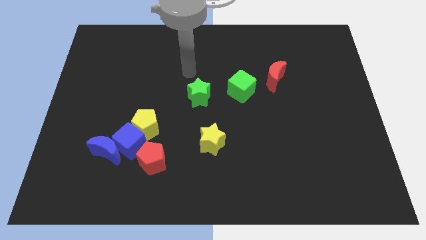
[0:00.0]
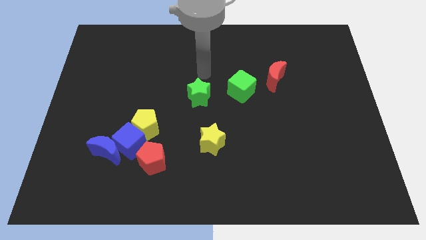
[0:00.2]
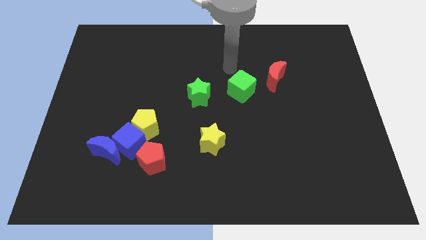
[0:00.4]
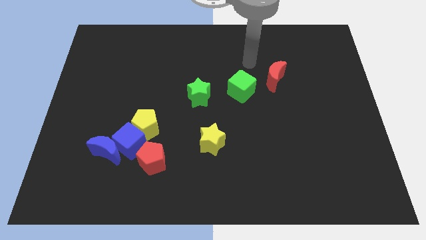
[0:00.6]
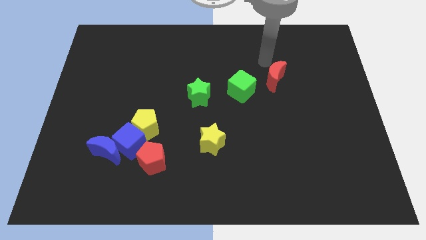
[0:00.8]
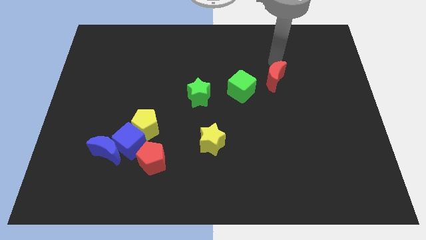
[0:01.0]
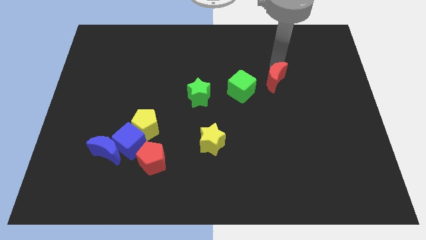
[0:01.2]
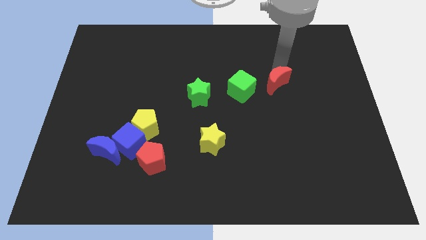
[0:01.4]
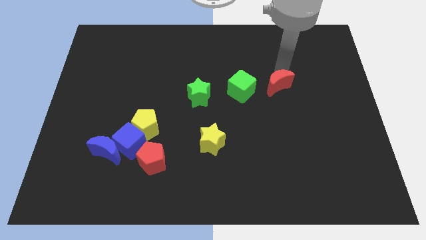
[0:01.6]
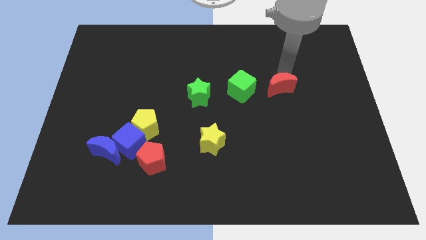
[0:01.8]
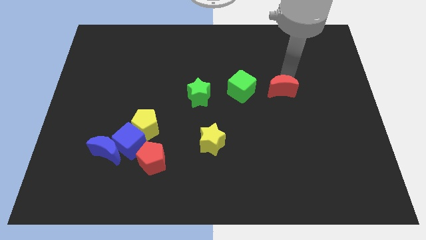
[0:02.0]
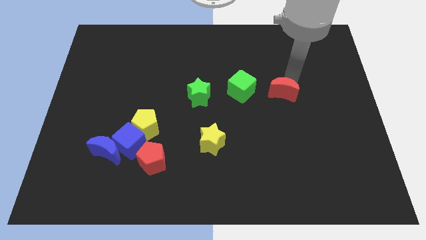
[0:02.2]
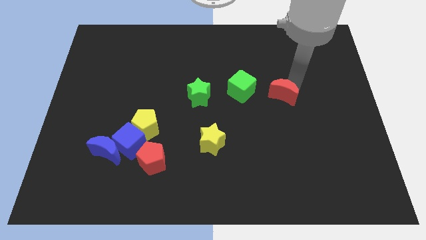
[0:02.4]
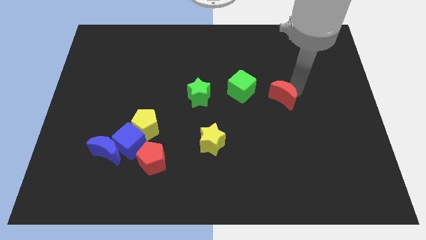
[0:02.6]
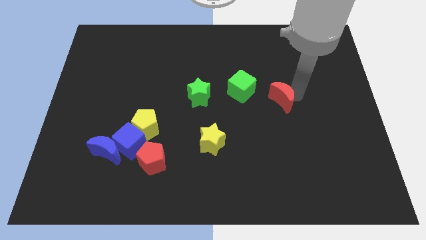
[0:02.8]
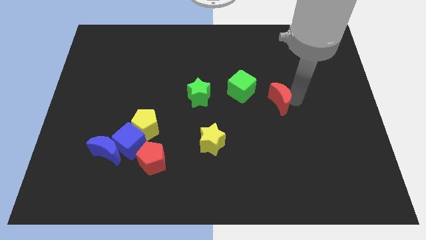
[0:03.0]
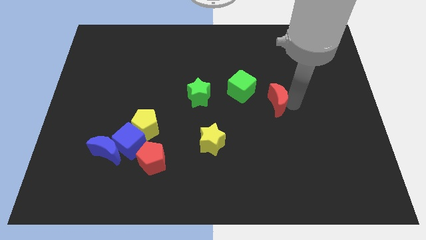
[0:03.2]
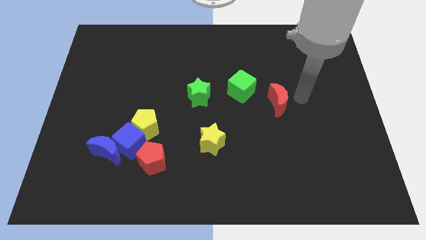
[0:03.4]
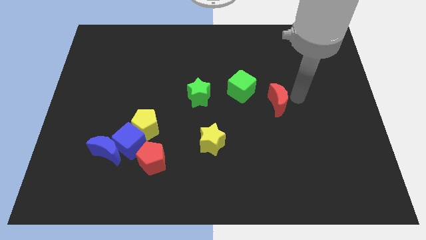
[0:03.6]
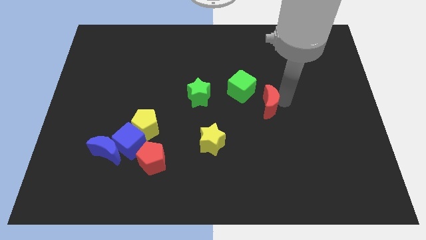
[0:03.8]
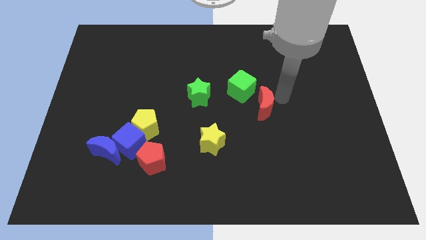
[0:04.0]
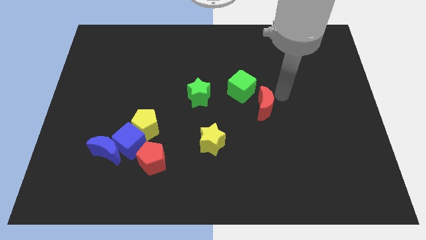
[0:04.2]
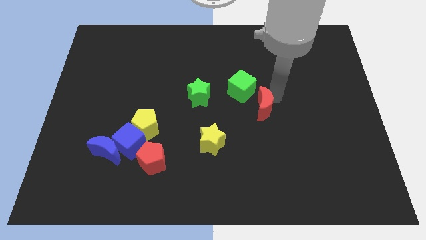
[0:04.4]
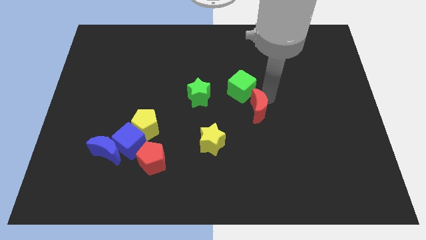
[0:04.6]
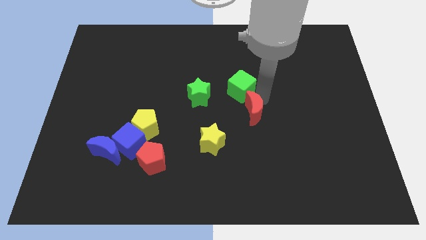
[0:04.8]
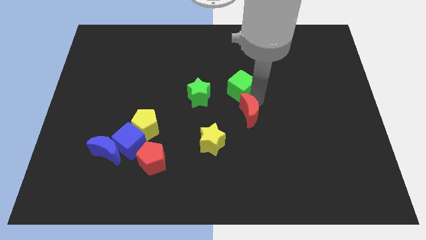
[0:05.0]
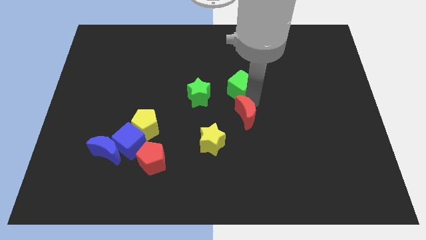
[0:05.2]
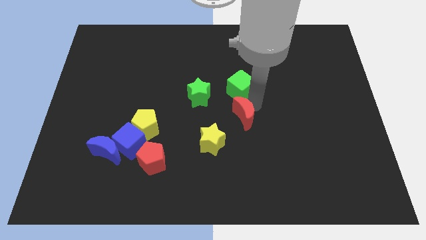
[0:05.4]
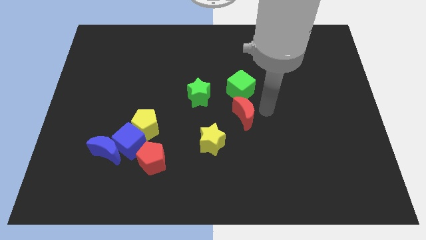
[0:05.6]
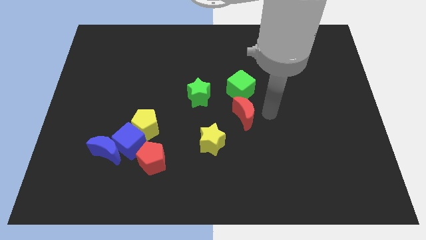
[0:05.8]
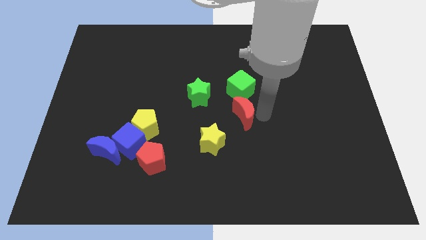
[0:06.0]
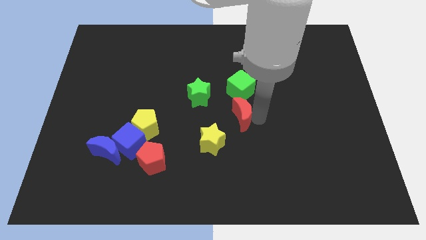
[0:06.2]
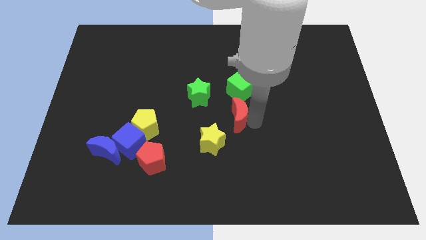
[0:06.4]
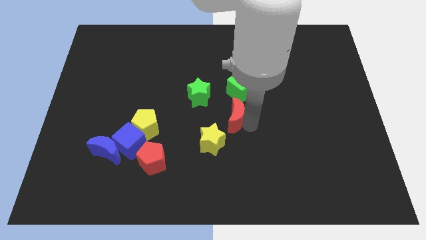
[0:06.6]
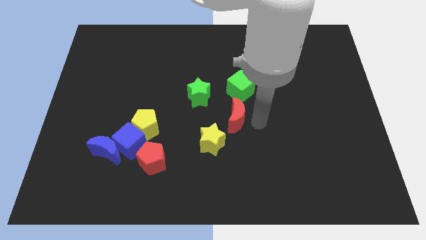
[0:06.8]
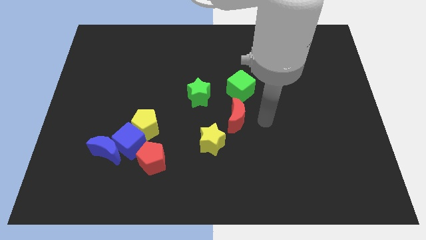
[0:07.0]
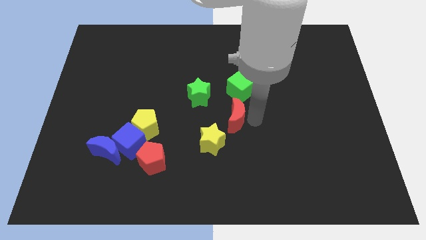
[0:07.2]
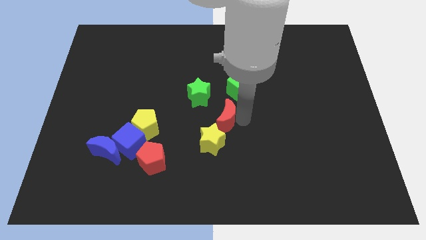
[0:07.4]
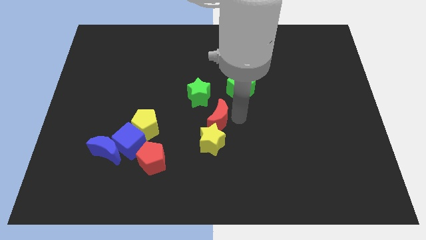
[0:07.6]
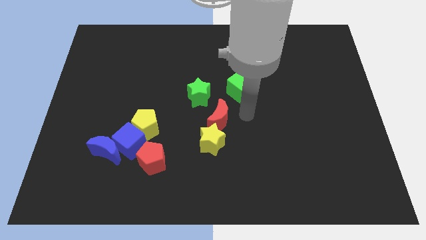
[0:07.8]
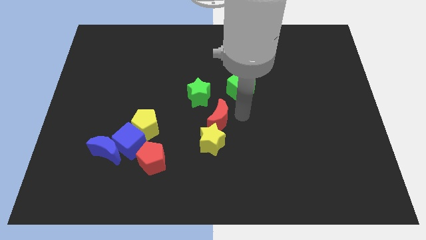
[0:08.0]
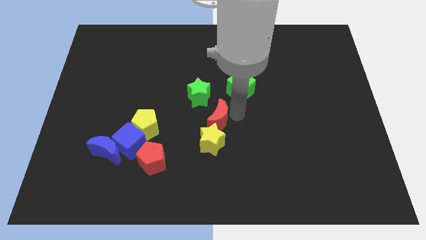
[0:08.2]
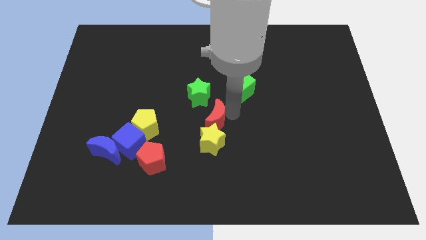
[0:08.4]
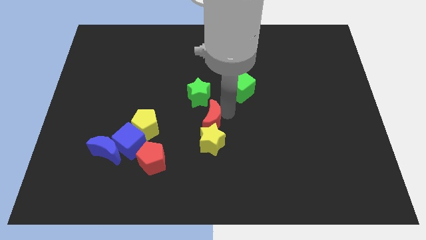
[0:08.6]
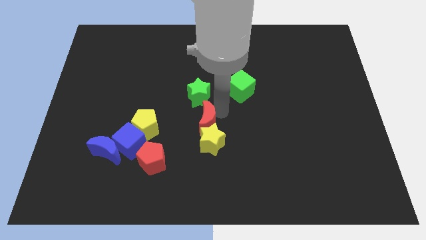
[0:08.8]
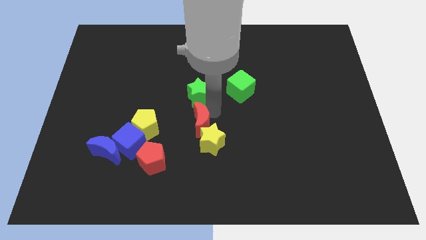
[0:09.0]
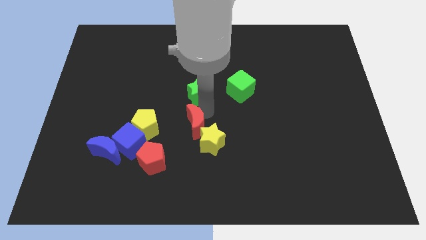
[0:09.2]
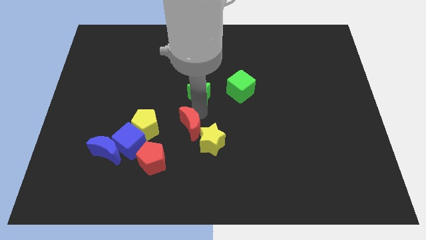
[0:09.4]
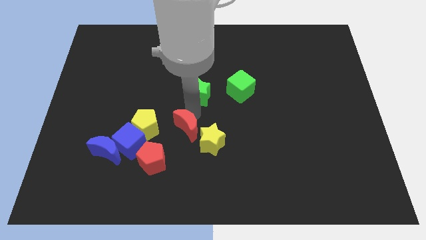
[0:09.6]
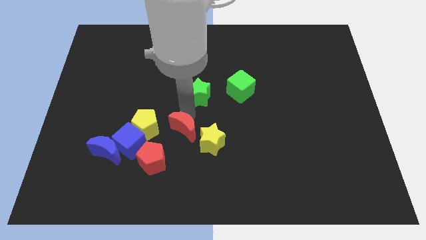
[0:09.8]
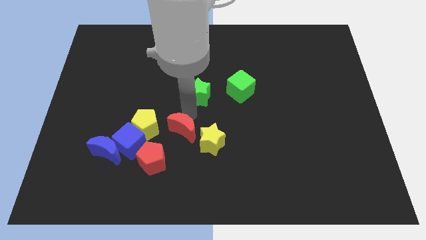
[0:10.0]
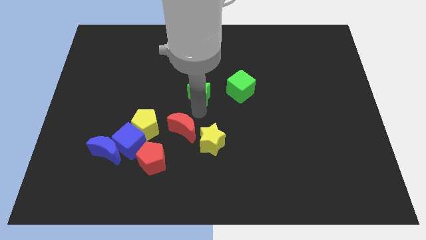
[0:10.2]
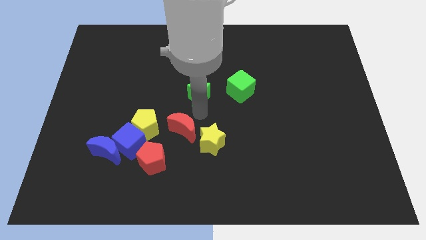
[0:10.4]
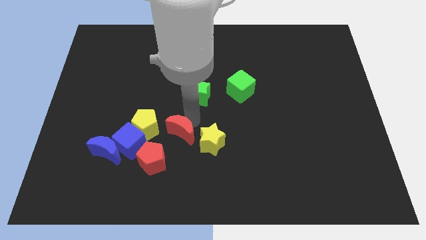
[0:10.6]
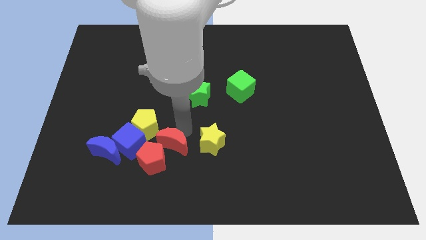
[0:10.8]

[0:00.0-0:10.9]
put the red moon next to the red pentagon

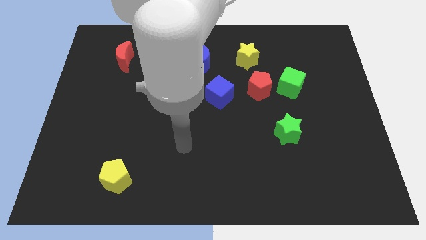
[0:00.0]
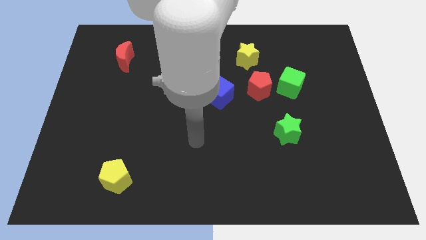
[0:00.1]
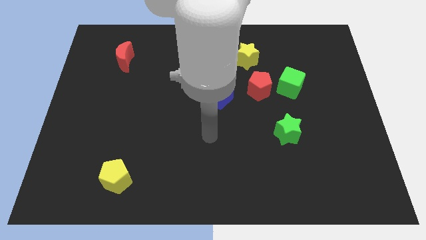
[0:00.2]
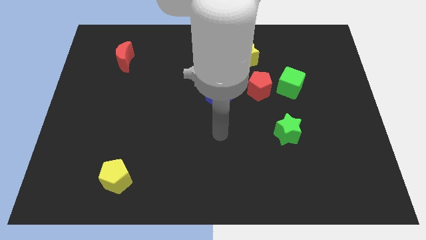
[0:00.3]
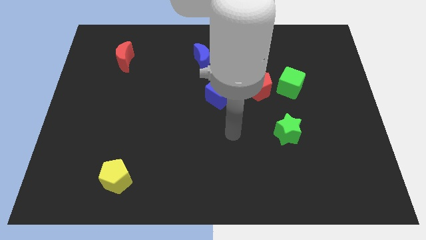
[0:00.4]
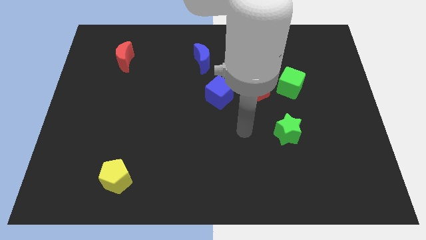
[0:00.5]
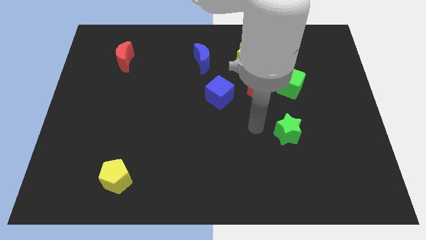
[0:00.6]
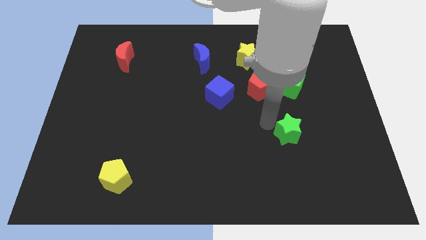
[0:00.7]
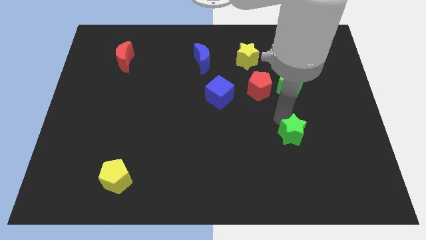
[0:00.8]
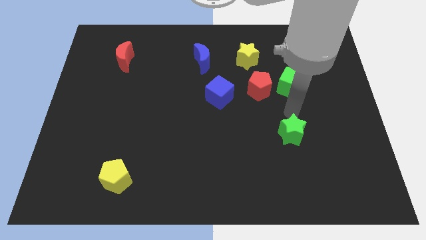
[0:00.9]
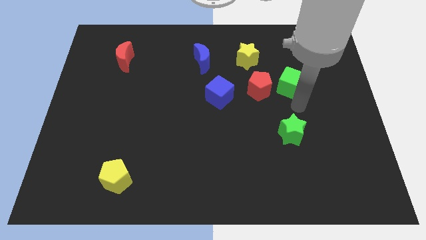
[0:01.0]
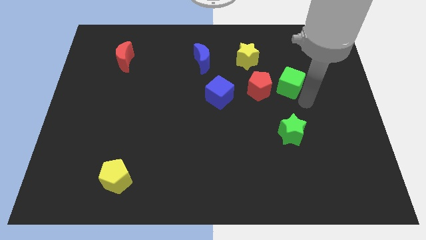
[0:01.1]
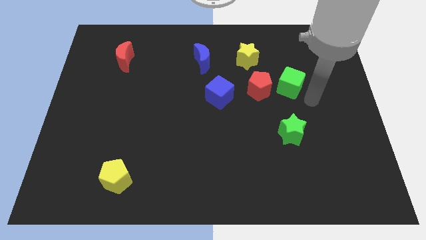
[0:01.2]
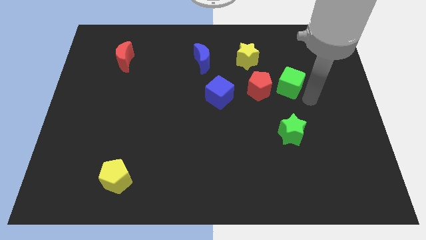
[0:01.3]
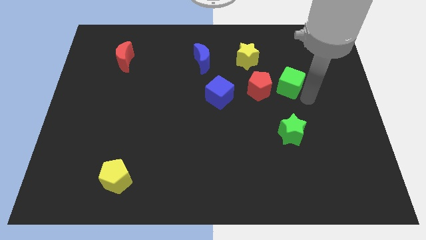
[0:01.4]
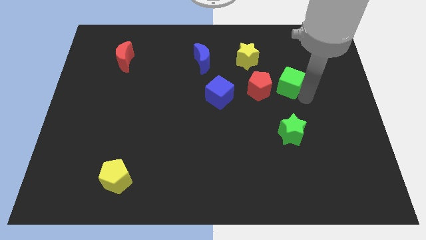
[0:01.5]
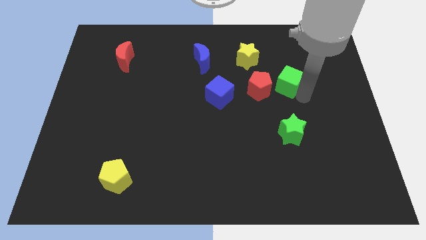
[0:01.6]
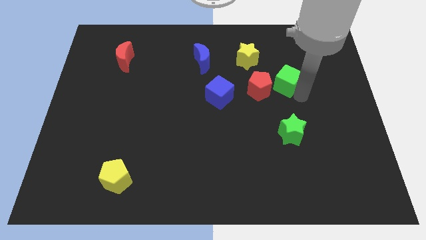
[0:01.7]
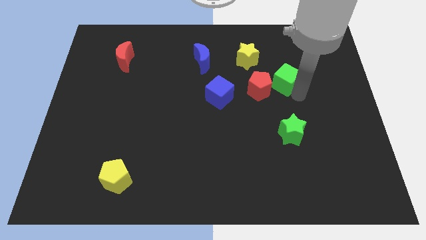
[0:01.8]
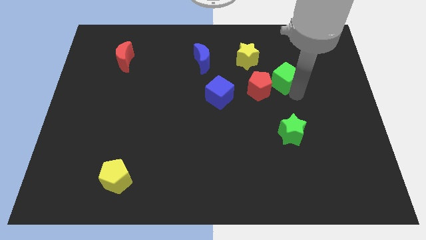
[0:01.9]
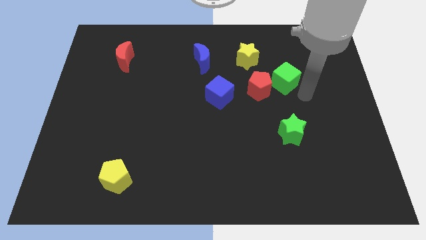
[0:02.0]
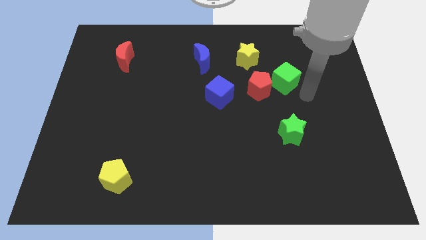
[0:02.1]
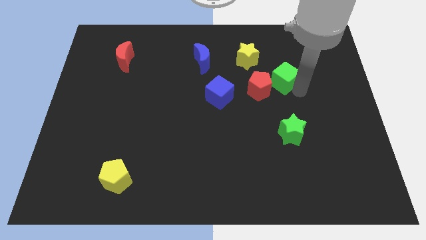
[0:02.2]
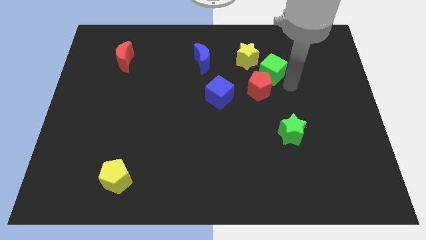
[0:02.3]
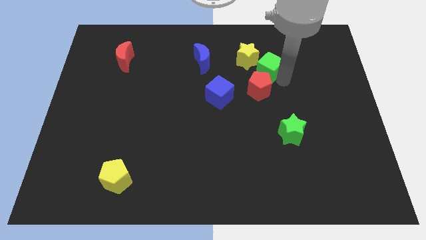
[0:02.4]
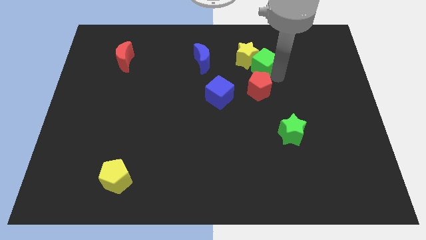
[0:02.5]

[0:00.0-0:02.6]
put the green cube close to the yellow star
